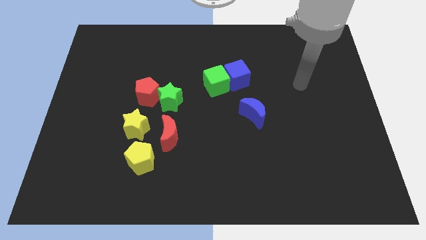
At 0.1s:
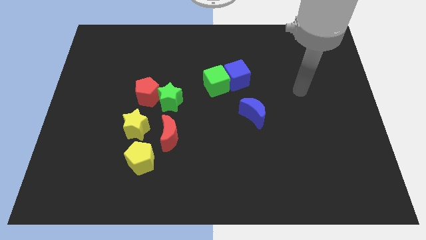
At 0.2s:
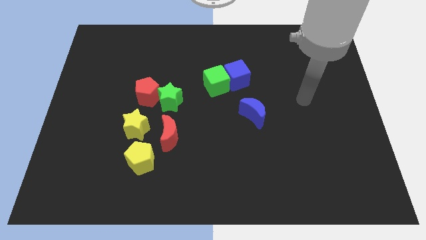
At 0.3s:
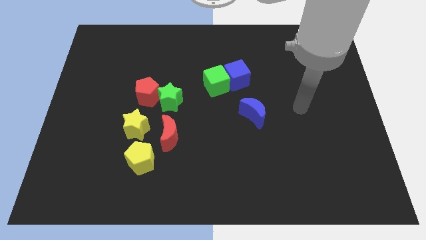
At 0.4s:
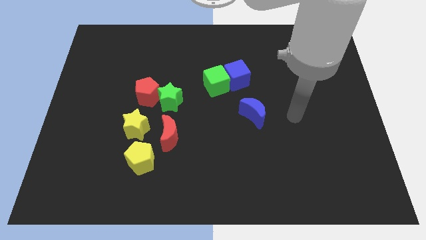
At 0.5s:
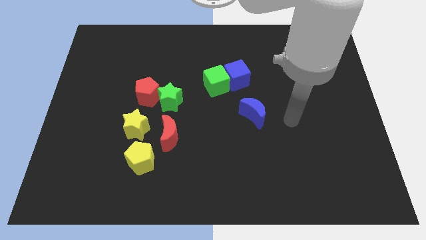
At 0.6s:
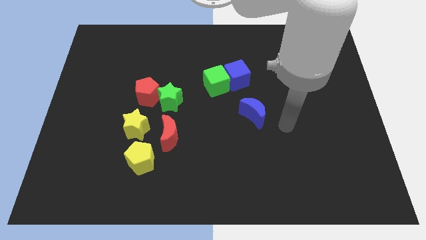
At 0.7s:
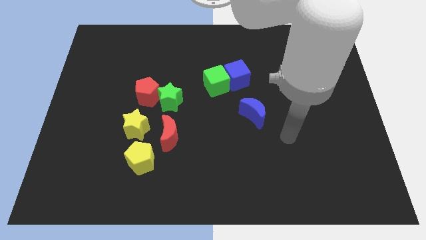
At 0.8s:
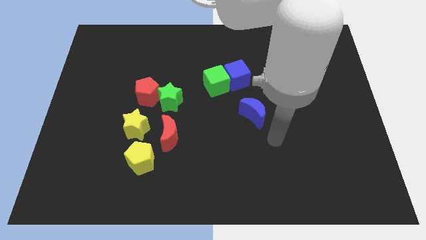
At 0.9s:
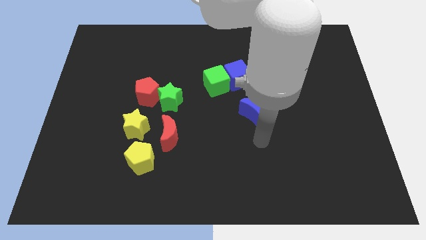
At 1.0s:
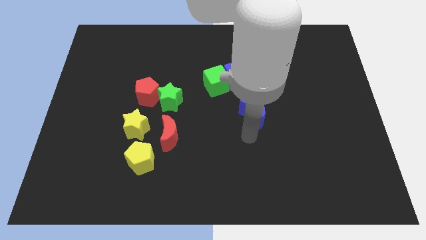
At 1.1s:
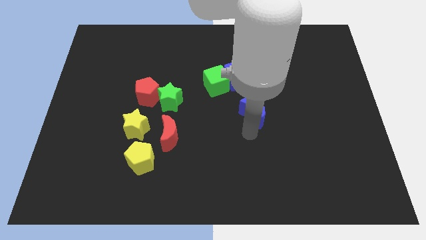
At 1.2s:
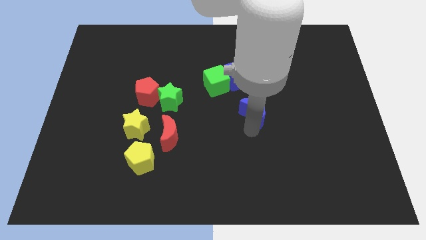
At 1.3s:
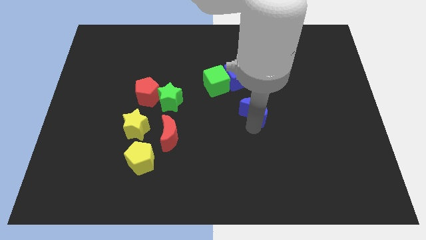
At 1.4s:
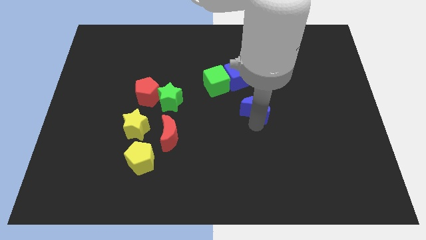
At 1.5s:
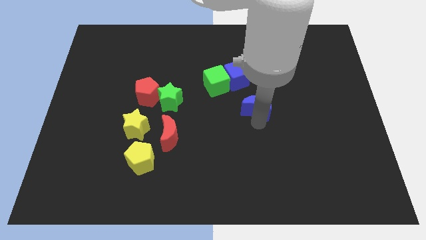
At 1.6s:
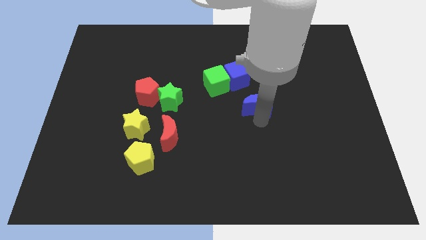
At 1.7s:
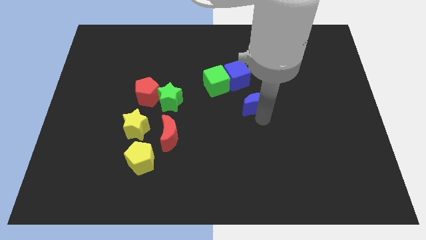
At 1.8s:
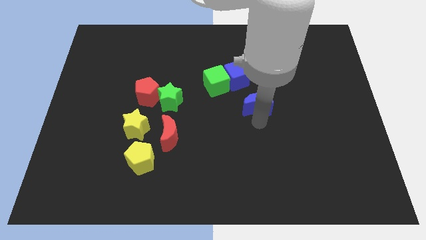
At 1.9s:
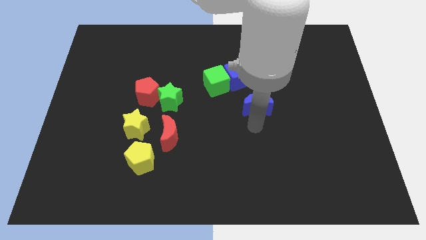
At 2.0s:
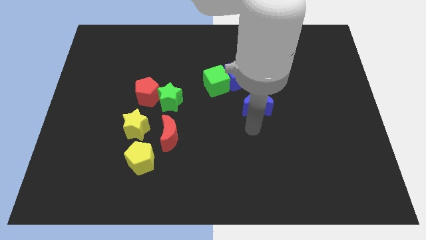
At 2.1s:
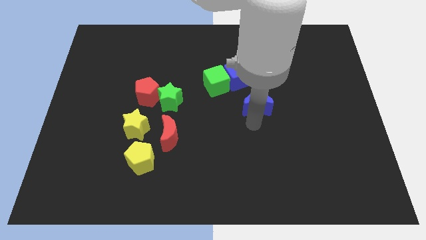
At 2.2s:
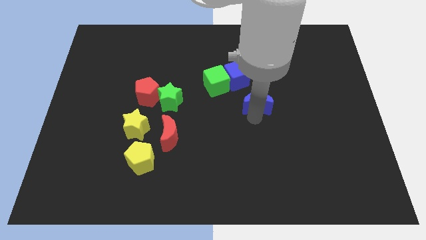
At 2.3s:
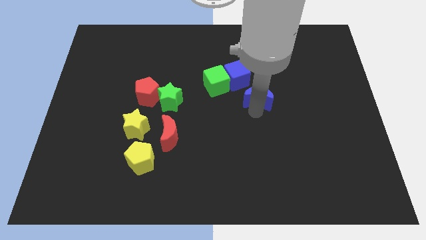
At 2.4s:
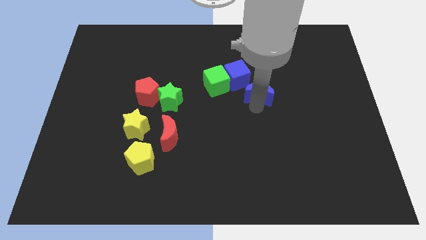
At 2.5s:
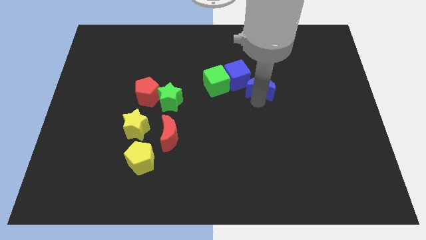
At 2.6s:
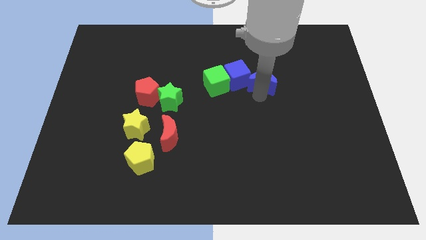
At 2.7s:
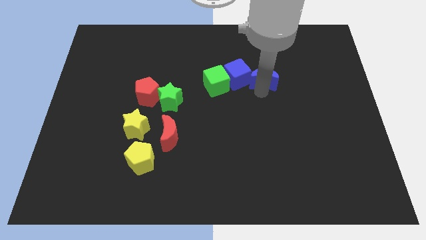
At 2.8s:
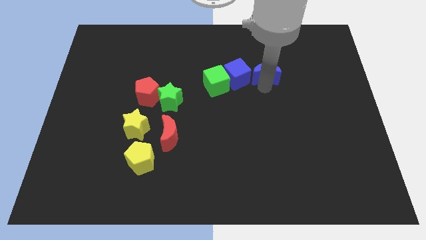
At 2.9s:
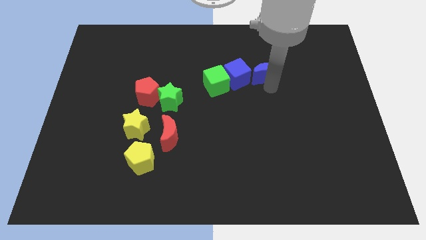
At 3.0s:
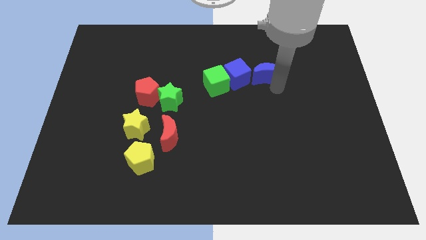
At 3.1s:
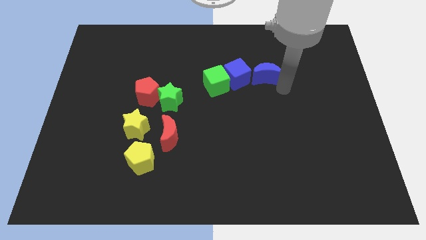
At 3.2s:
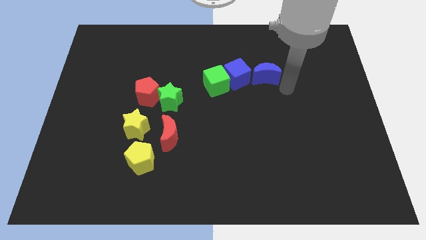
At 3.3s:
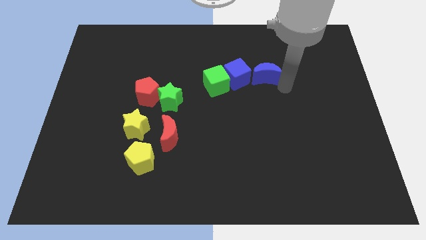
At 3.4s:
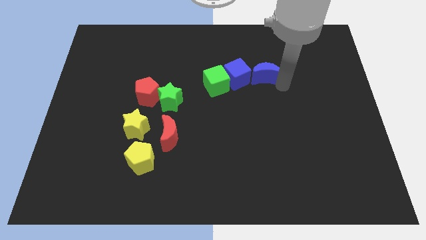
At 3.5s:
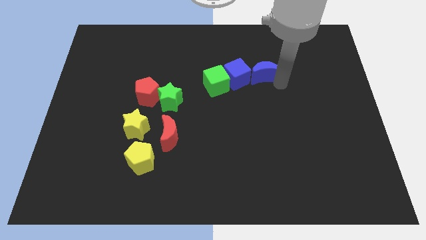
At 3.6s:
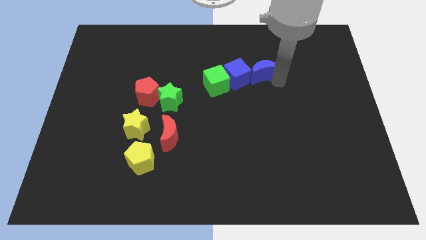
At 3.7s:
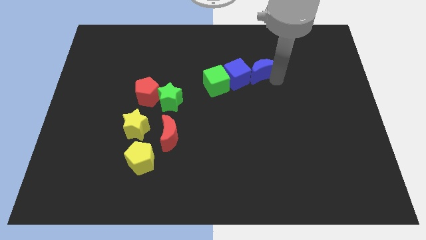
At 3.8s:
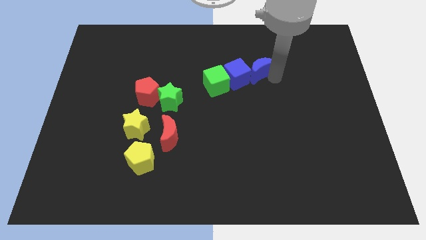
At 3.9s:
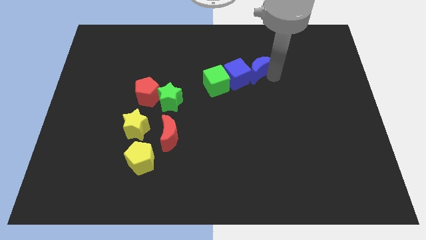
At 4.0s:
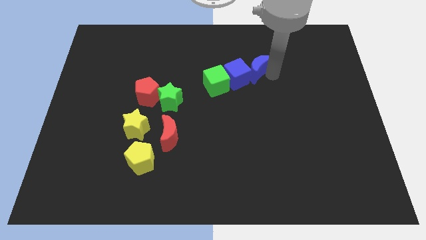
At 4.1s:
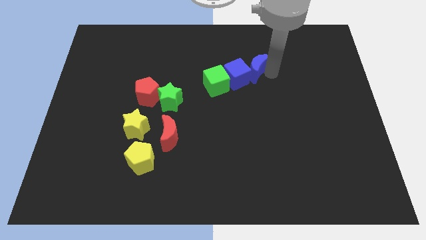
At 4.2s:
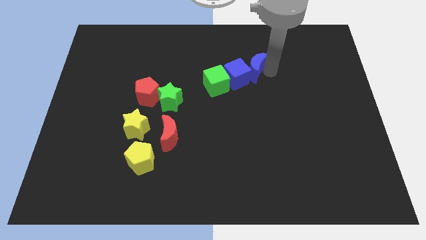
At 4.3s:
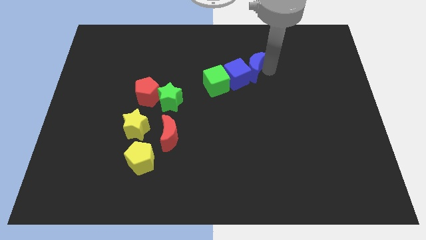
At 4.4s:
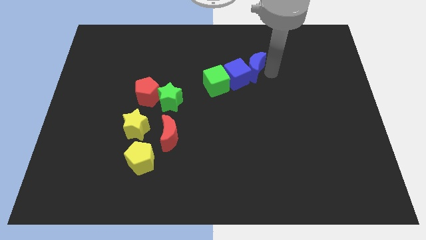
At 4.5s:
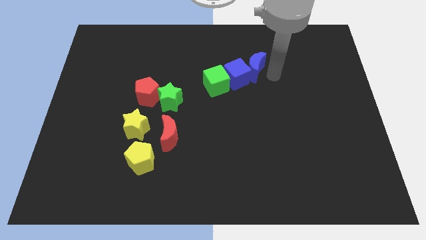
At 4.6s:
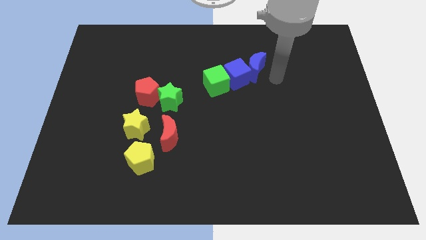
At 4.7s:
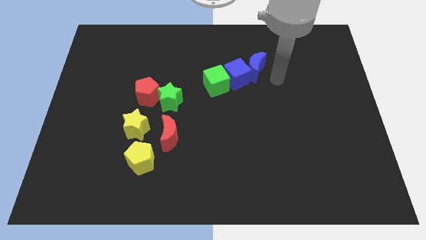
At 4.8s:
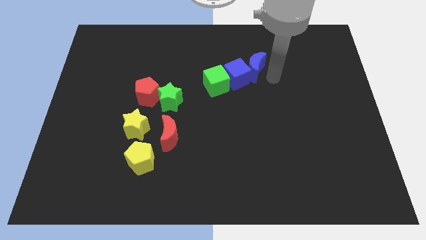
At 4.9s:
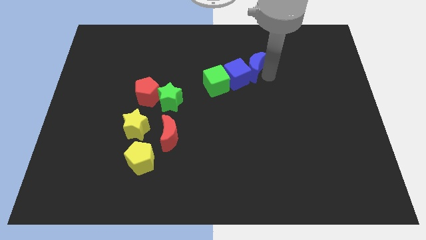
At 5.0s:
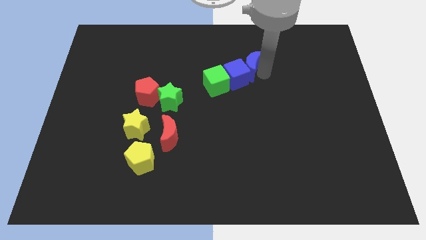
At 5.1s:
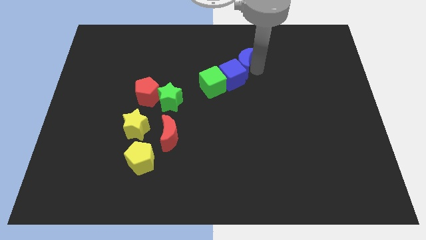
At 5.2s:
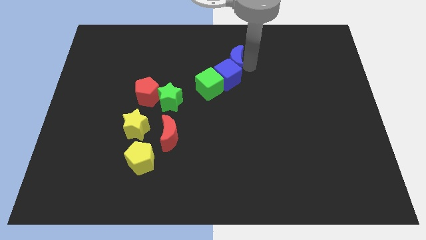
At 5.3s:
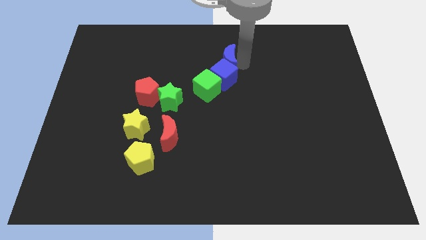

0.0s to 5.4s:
move the blue moon to the top left of the blue cube

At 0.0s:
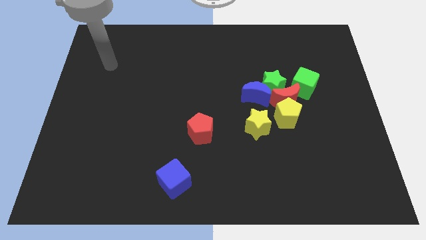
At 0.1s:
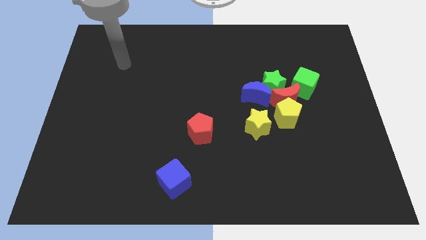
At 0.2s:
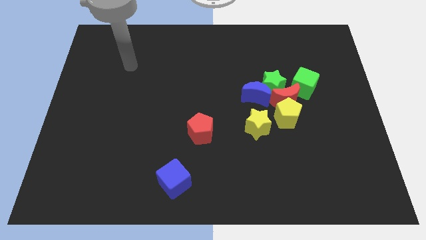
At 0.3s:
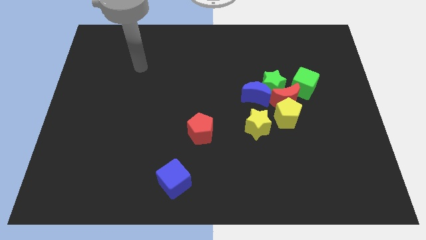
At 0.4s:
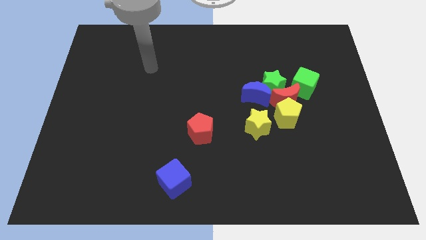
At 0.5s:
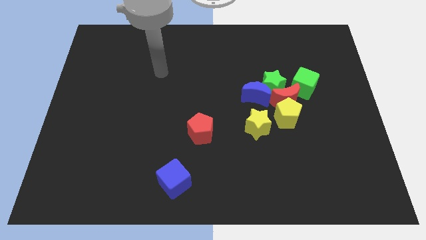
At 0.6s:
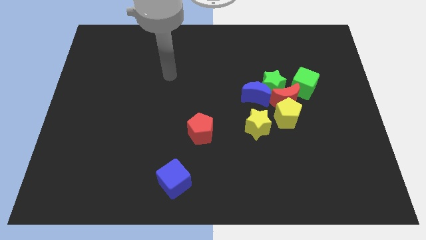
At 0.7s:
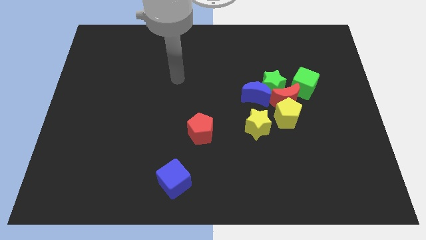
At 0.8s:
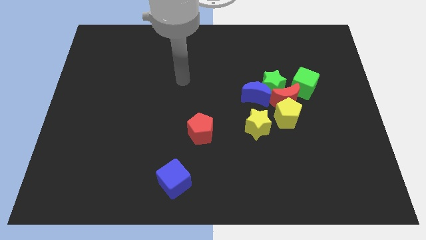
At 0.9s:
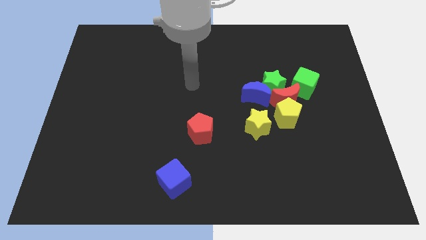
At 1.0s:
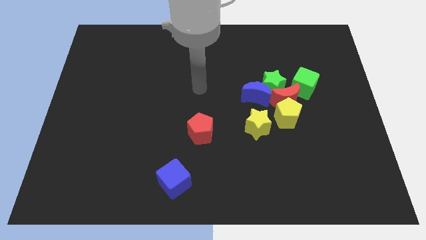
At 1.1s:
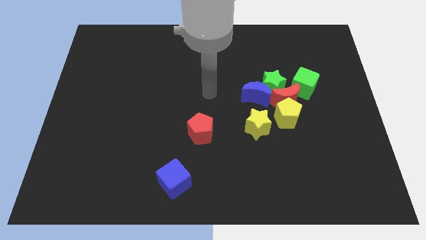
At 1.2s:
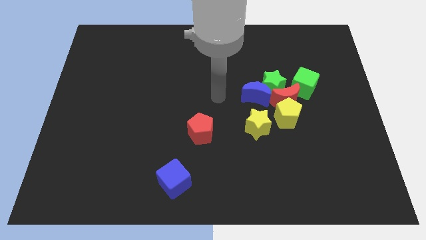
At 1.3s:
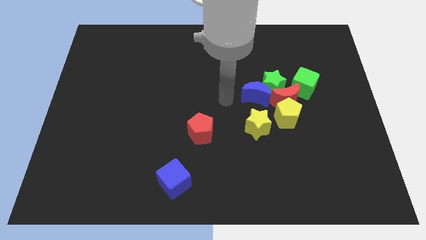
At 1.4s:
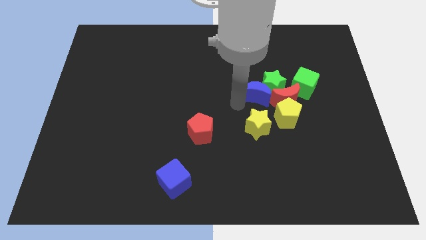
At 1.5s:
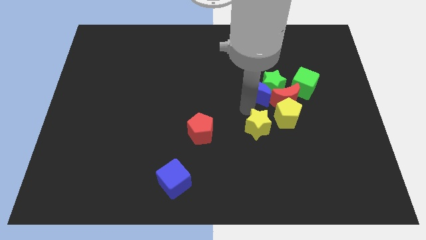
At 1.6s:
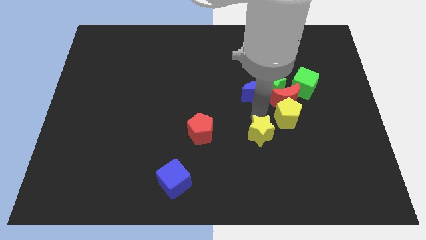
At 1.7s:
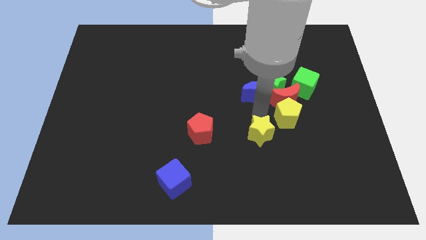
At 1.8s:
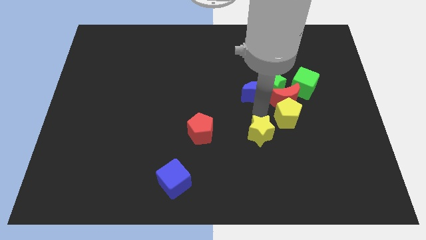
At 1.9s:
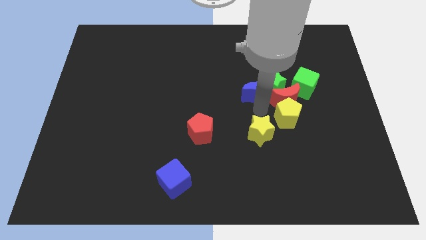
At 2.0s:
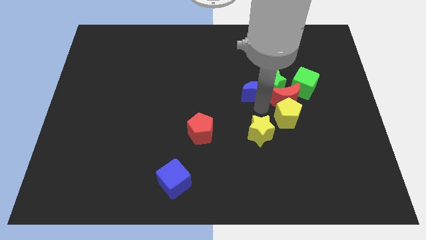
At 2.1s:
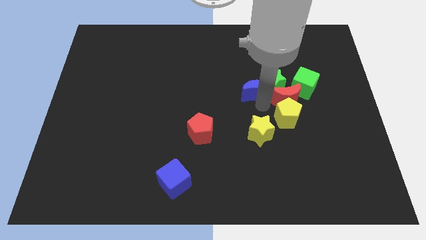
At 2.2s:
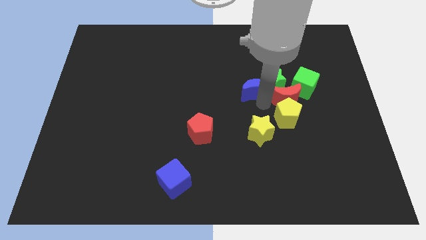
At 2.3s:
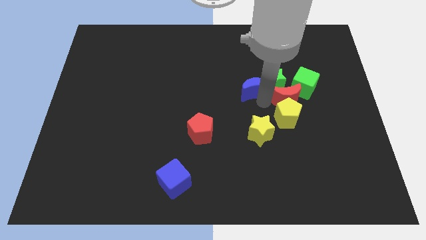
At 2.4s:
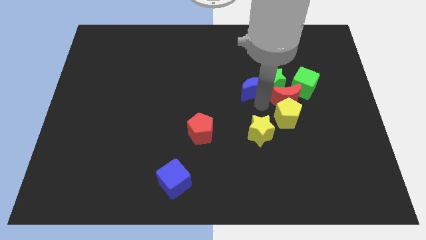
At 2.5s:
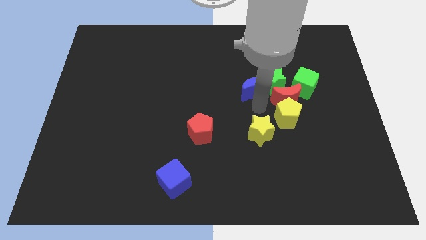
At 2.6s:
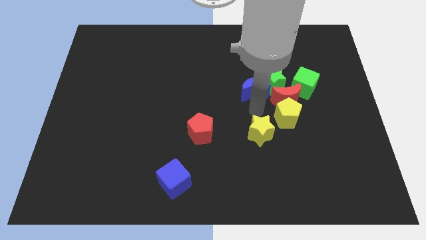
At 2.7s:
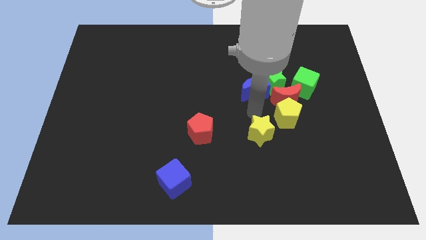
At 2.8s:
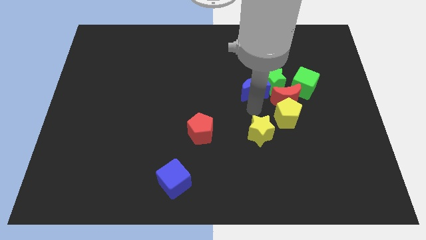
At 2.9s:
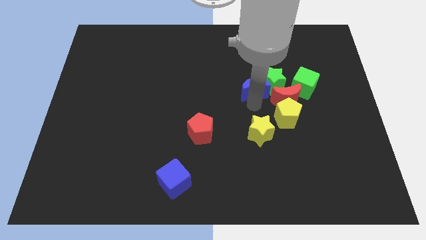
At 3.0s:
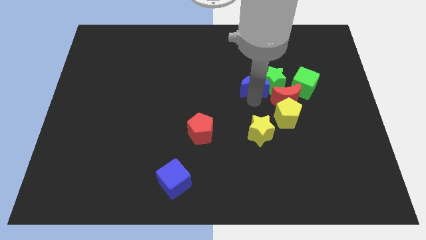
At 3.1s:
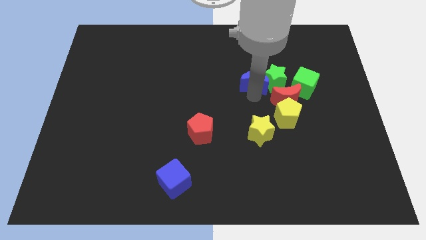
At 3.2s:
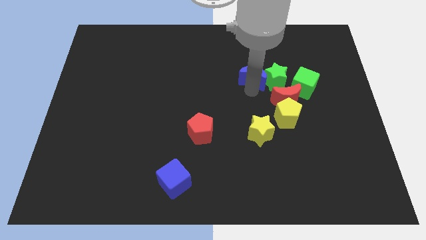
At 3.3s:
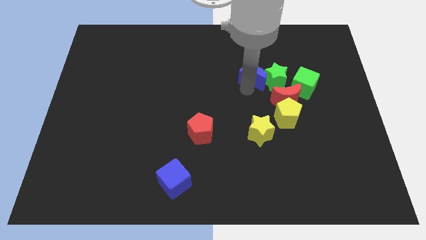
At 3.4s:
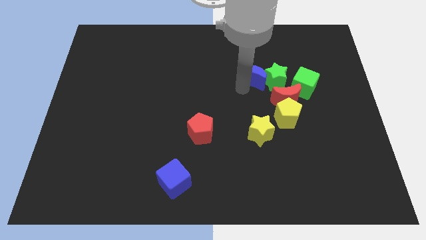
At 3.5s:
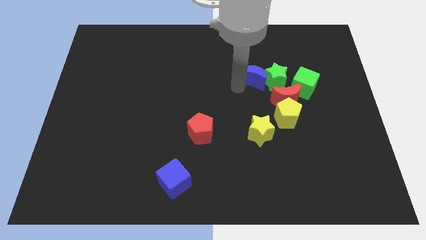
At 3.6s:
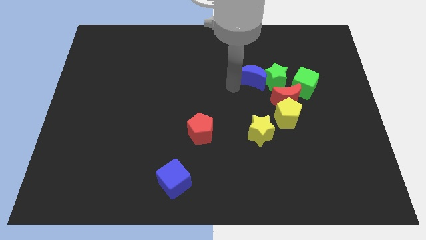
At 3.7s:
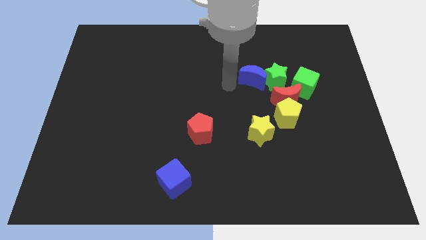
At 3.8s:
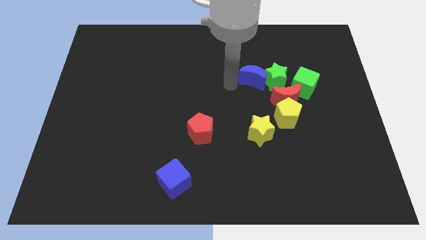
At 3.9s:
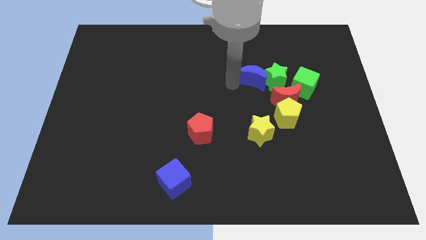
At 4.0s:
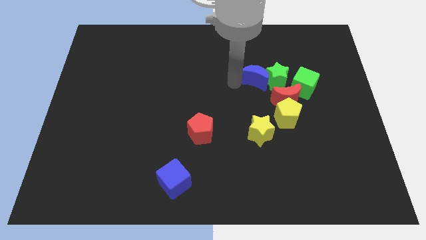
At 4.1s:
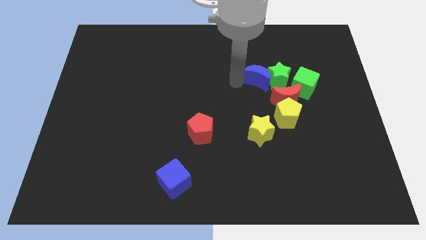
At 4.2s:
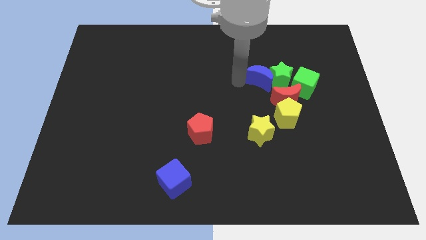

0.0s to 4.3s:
put the blue moon above the yellow pentagon
